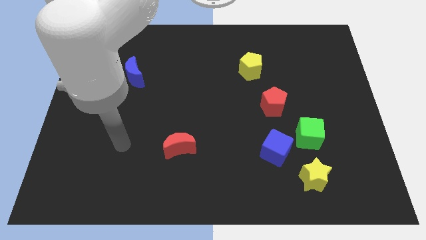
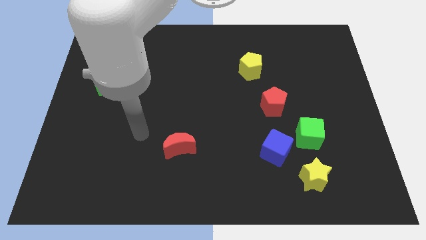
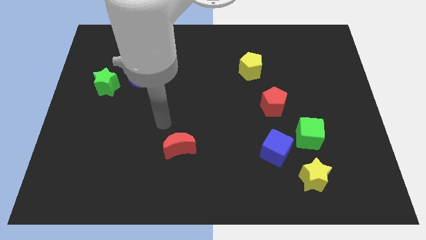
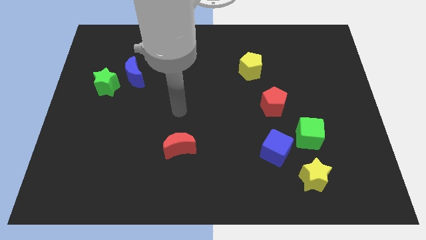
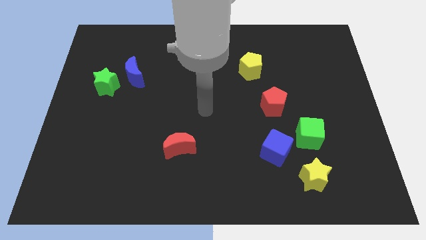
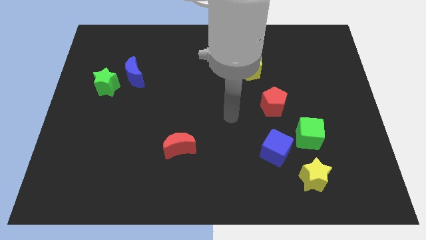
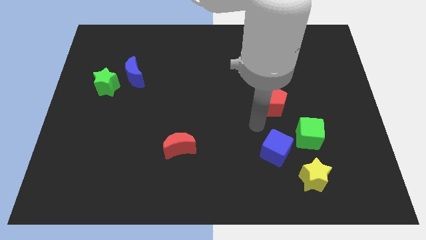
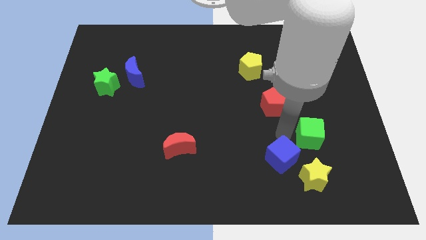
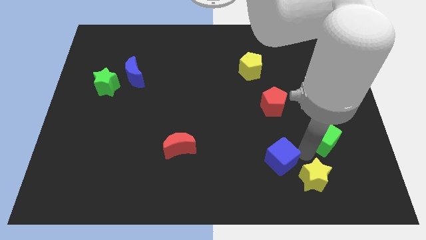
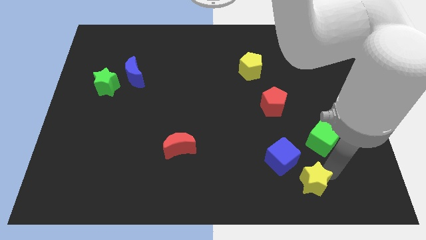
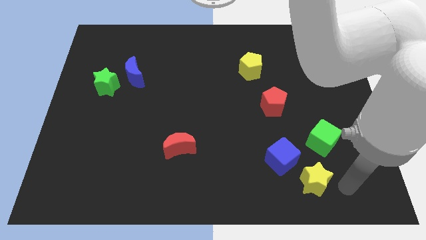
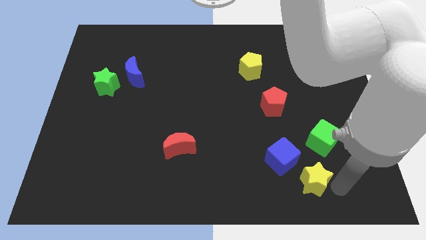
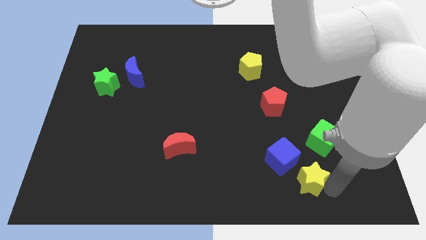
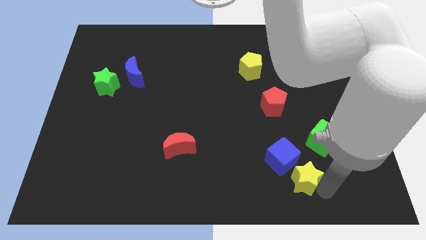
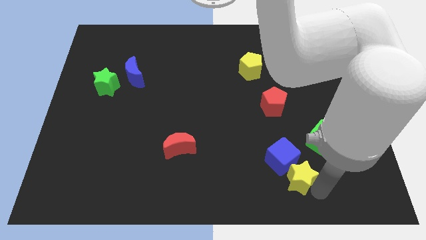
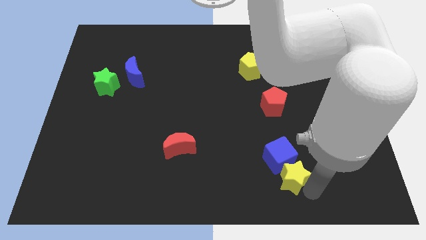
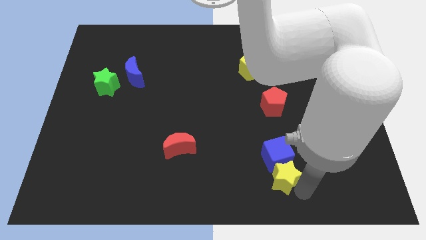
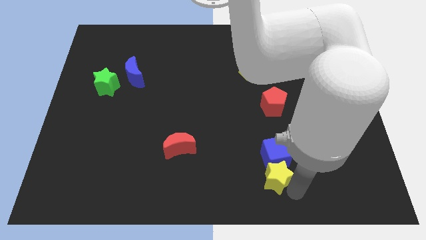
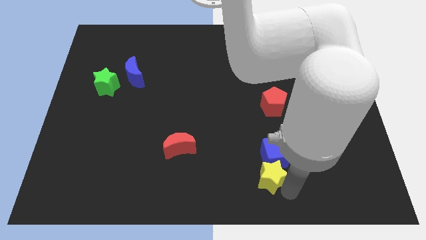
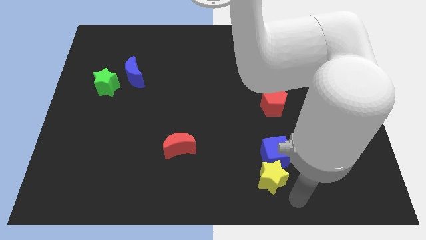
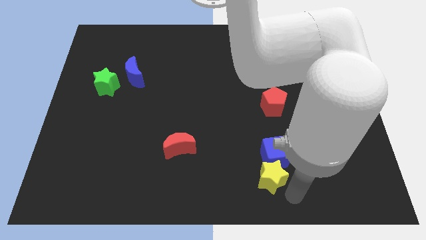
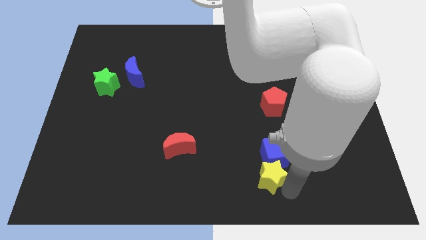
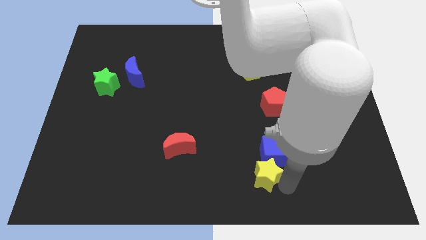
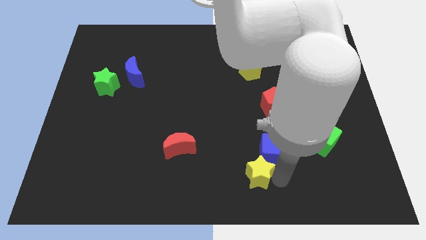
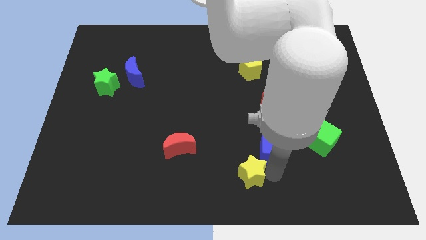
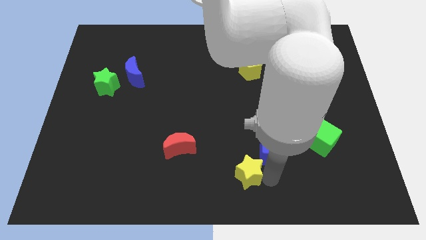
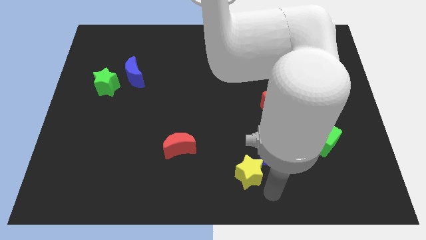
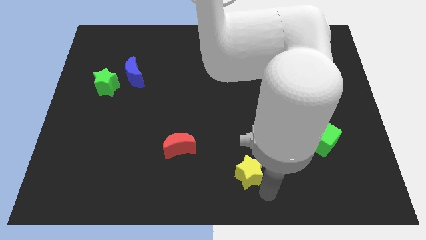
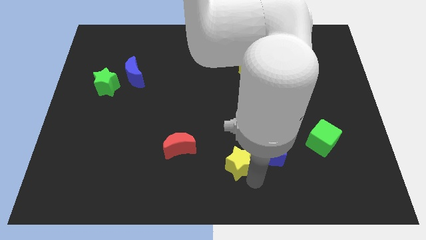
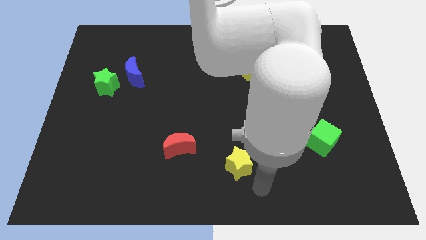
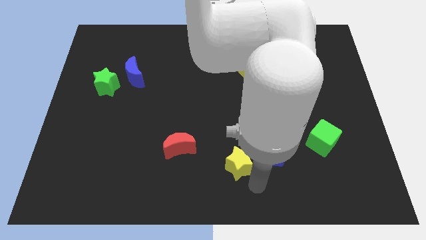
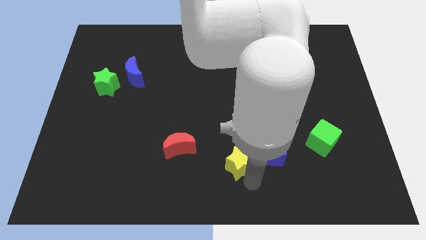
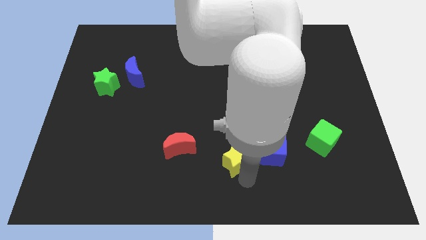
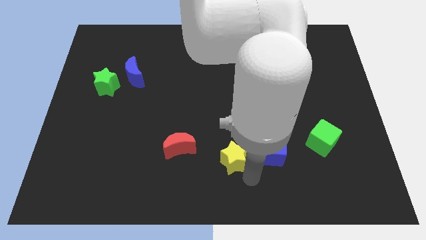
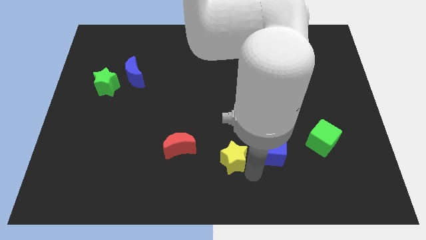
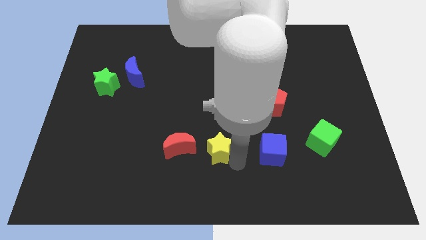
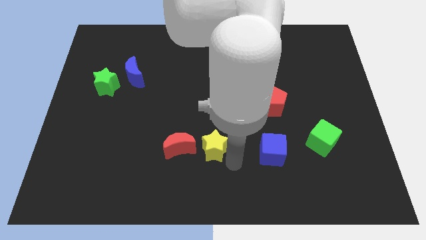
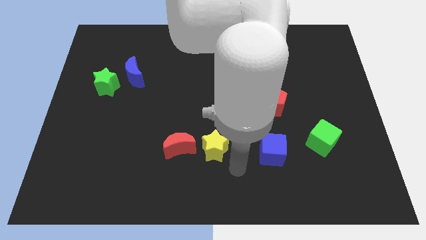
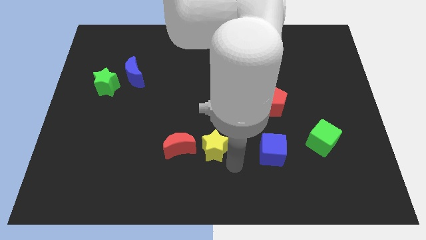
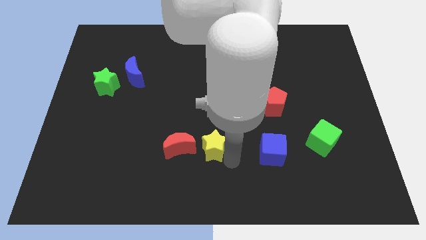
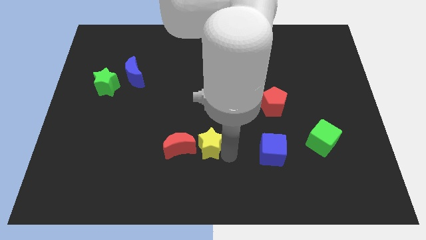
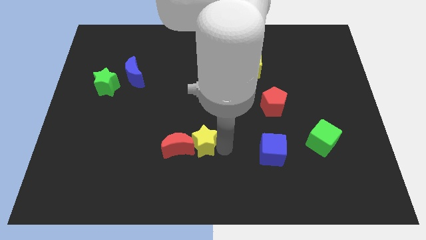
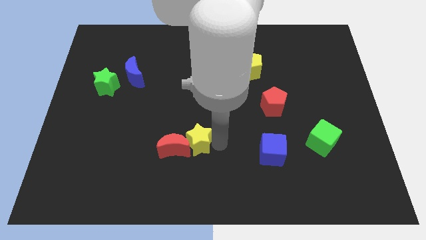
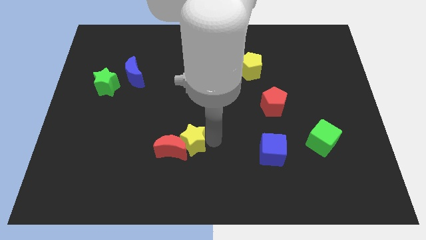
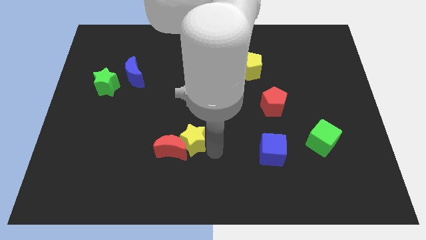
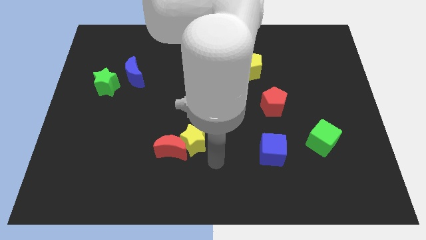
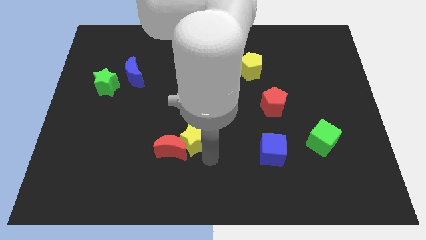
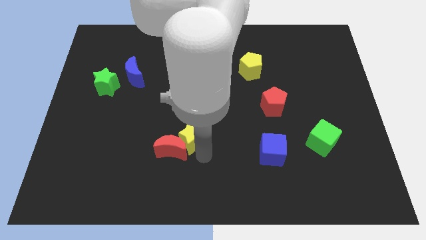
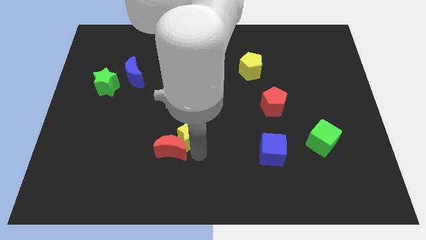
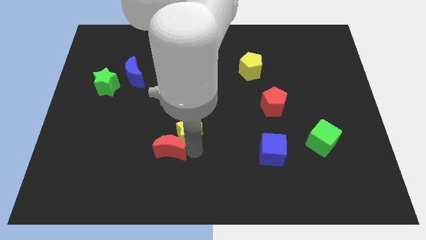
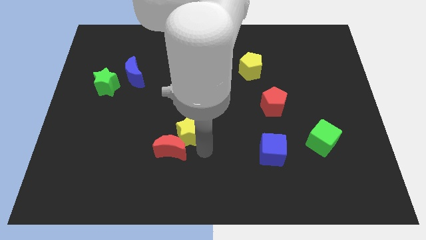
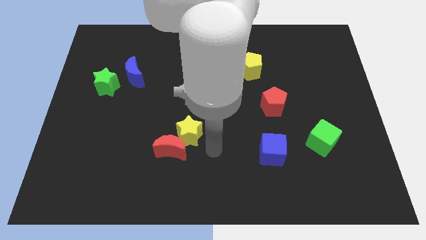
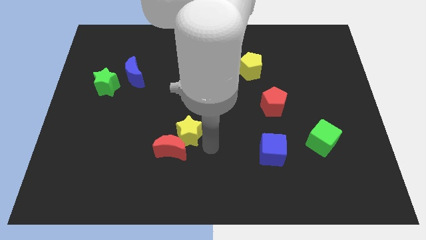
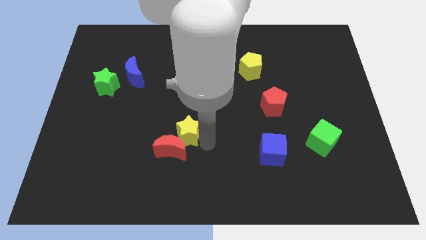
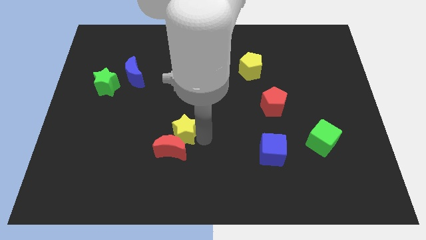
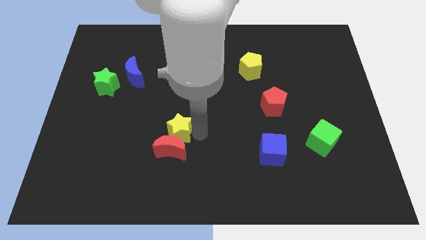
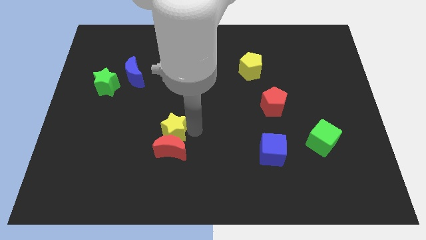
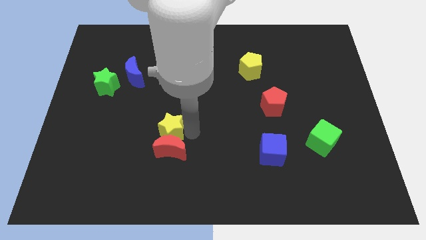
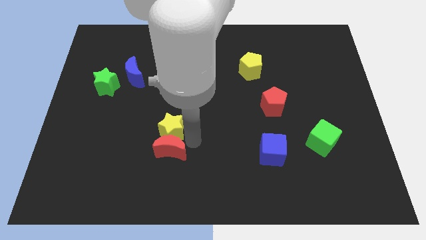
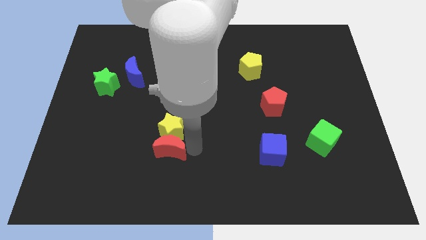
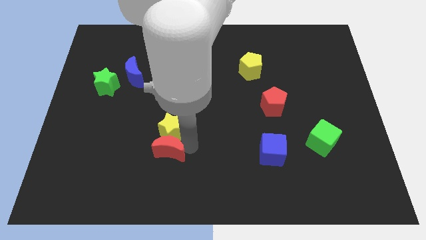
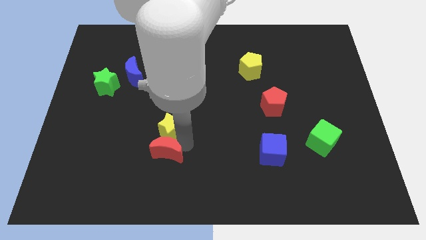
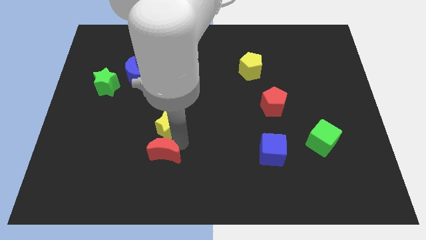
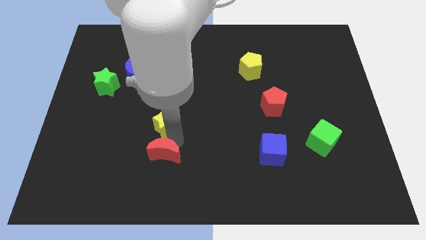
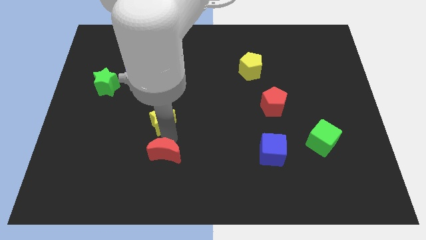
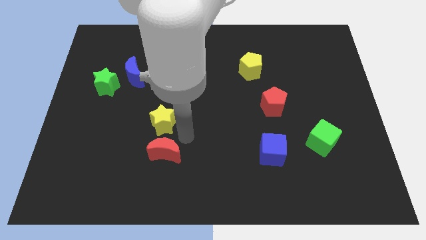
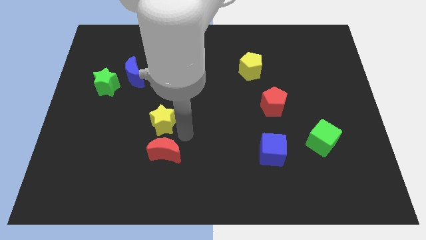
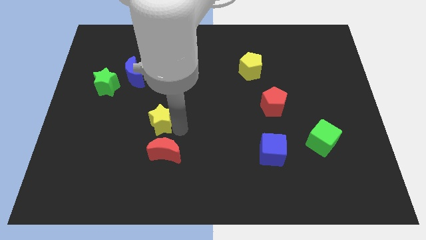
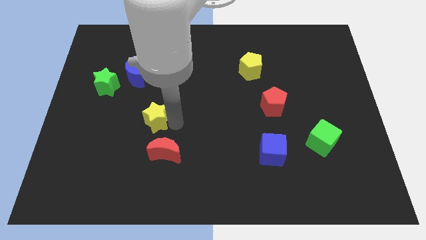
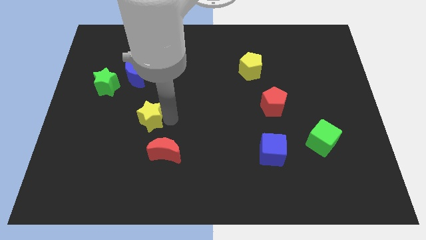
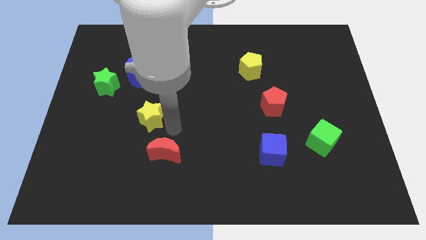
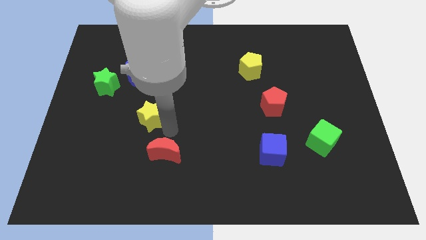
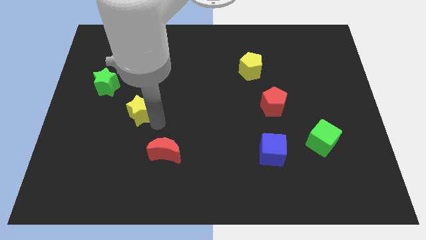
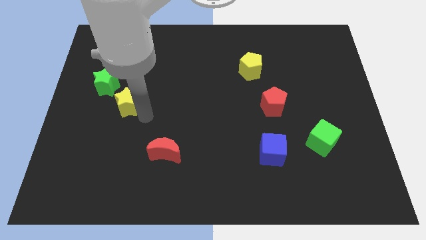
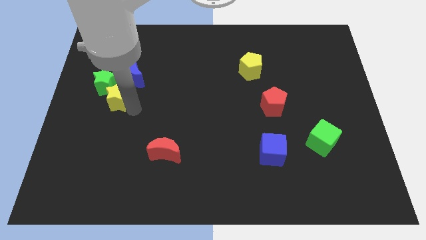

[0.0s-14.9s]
move the yellow star to the bottom left side of the blue moon

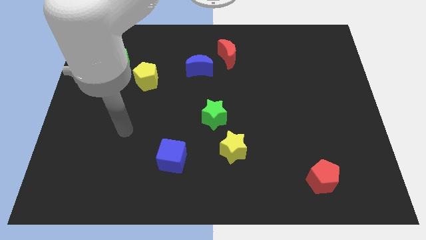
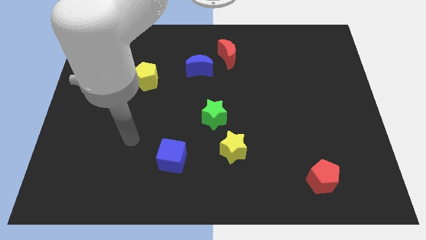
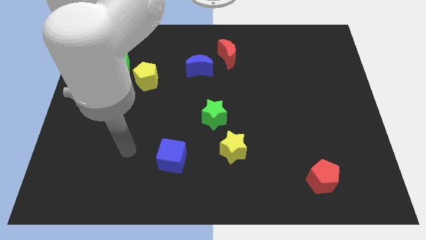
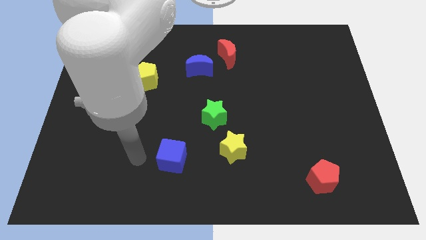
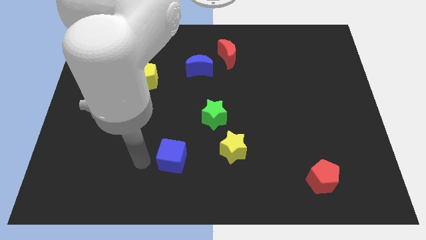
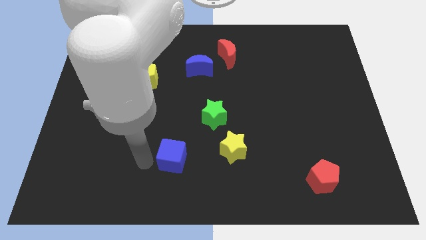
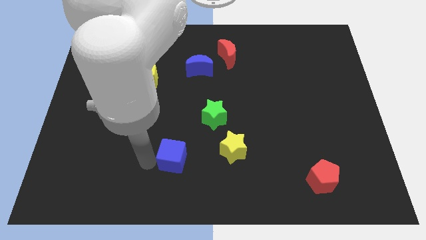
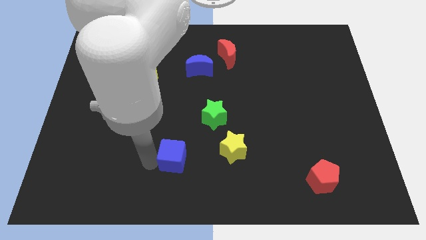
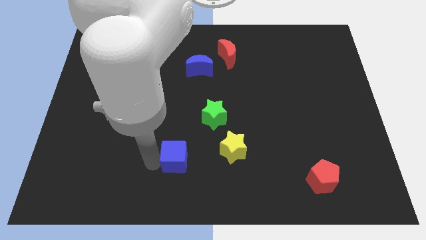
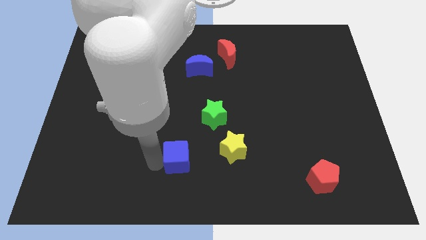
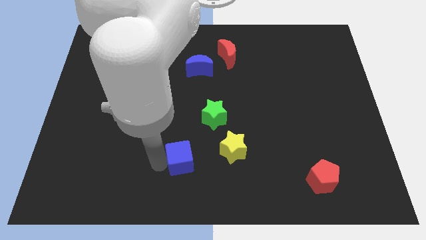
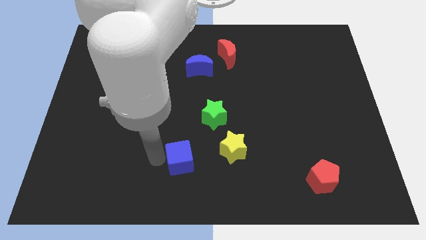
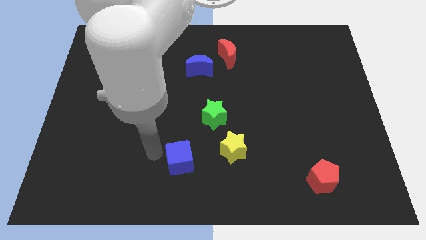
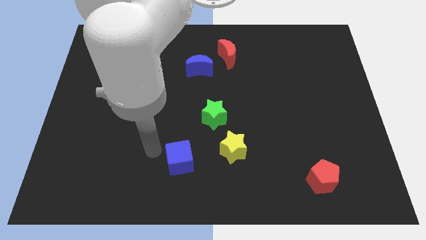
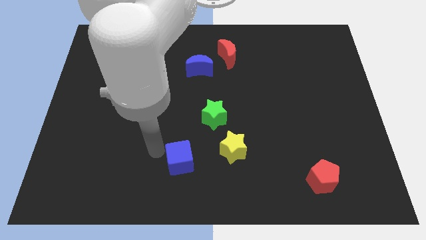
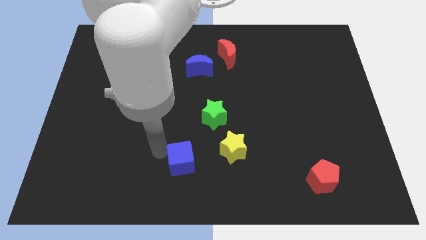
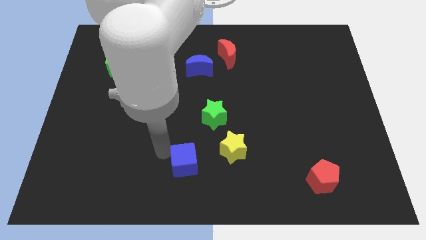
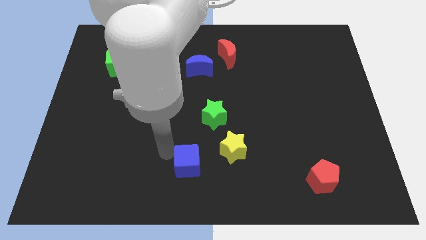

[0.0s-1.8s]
slide the blue cube diagonally down and to the left of the yellow star
